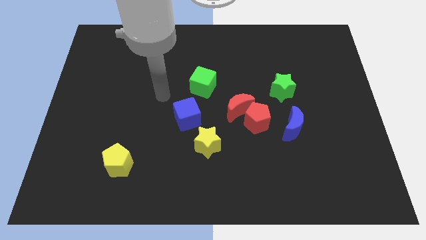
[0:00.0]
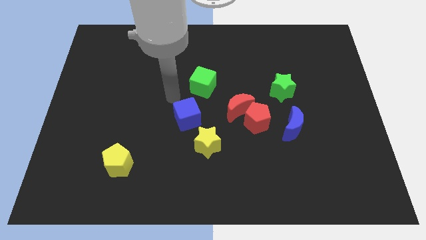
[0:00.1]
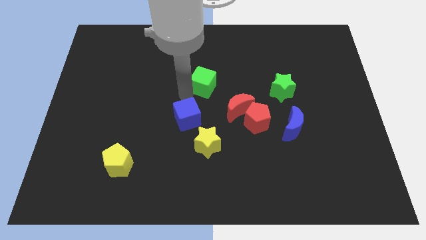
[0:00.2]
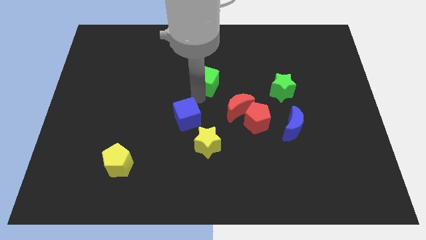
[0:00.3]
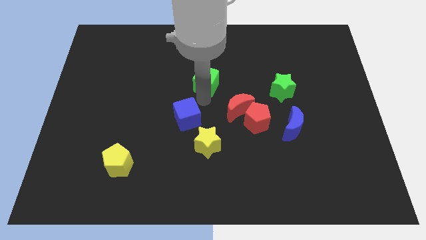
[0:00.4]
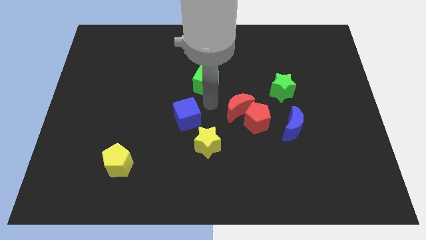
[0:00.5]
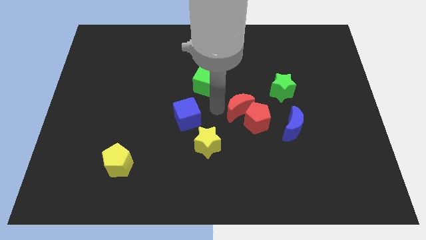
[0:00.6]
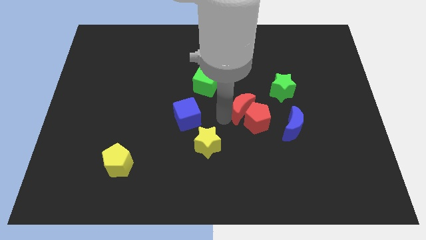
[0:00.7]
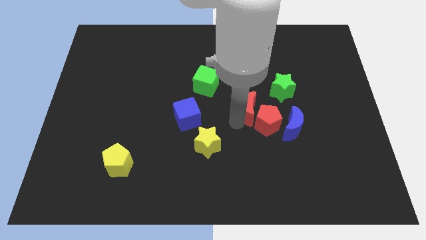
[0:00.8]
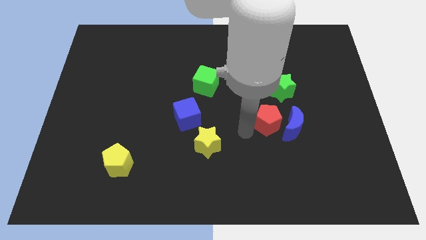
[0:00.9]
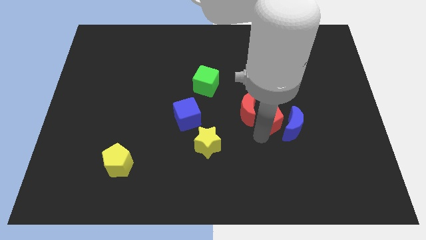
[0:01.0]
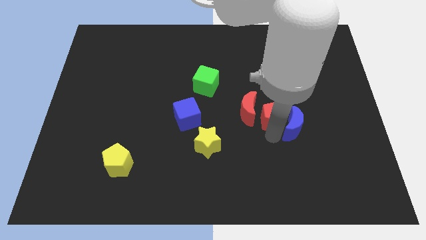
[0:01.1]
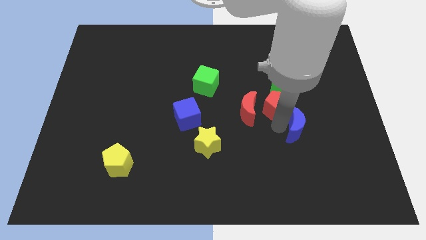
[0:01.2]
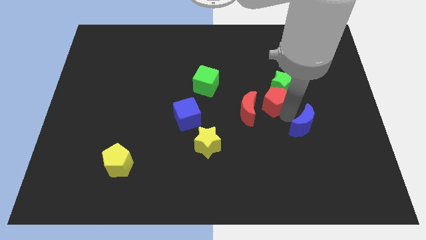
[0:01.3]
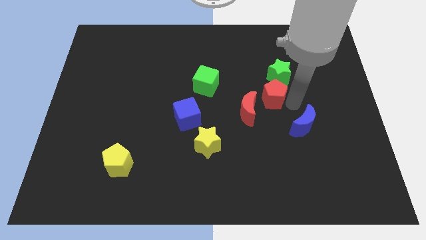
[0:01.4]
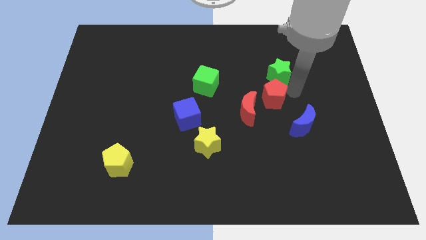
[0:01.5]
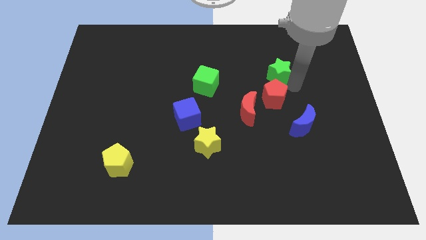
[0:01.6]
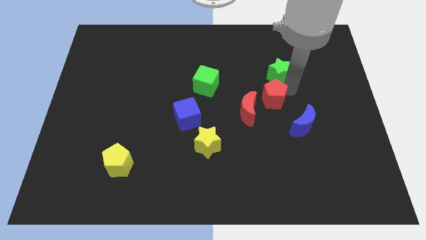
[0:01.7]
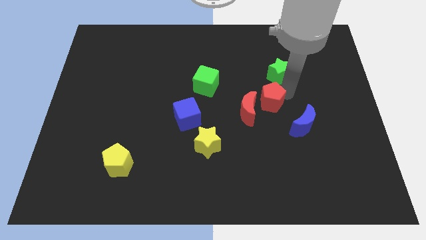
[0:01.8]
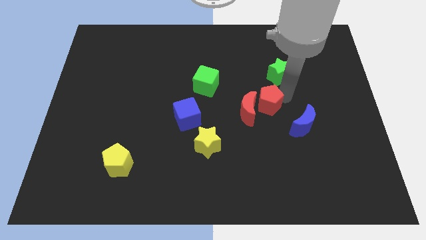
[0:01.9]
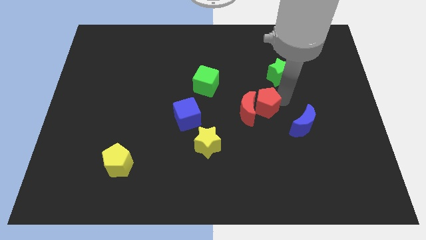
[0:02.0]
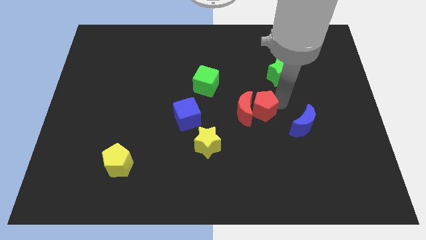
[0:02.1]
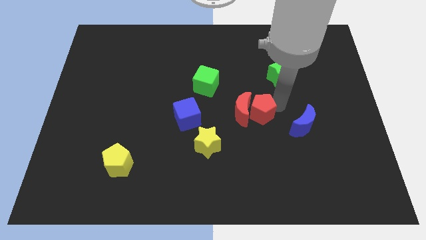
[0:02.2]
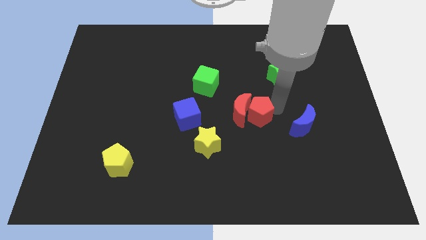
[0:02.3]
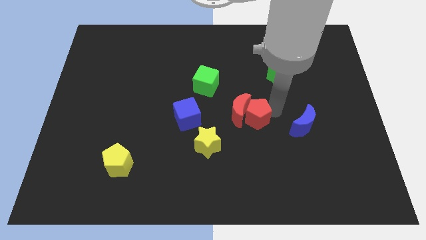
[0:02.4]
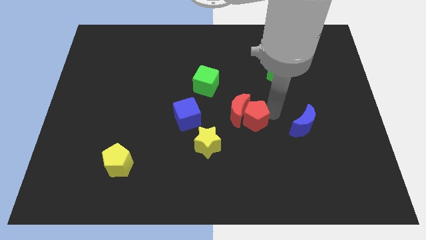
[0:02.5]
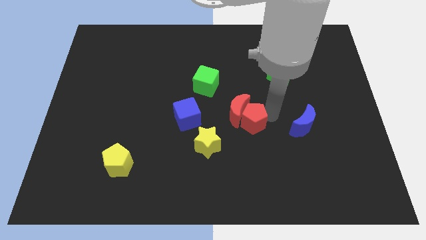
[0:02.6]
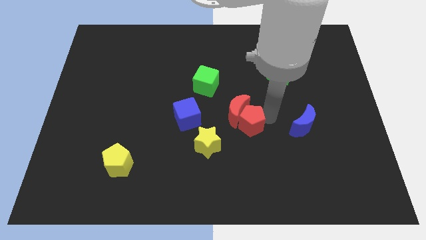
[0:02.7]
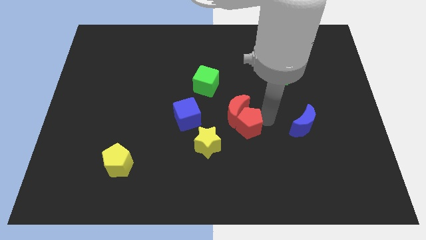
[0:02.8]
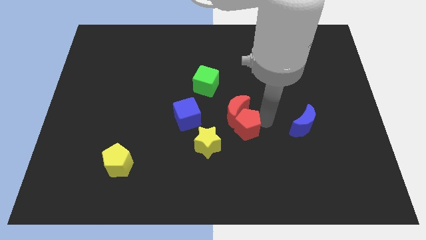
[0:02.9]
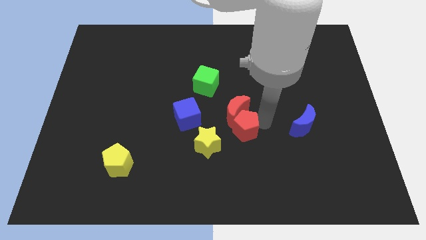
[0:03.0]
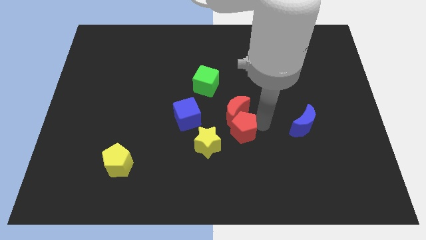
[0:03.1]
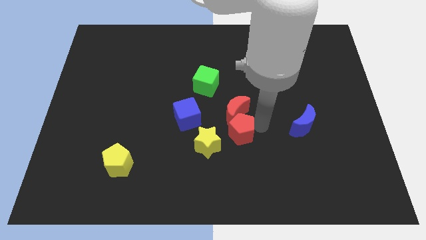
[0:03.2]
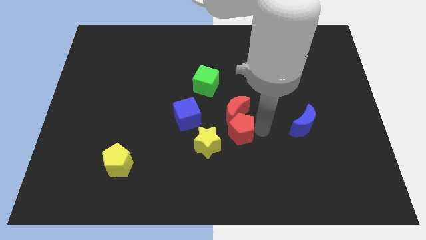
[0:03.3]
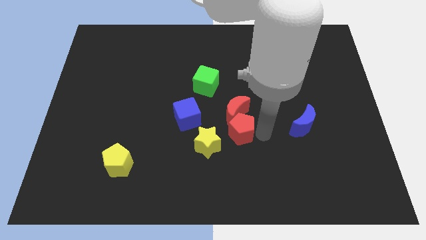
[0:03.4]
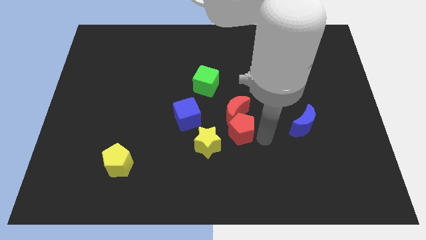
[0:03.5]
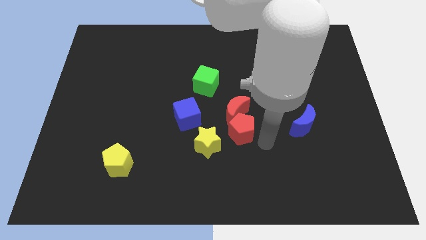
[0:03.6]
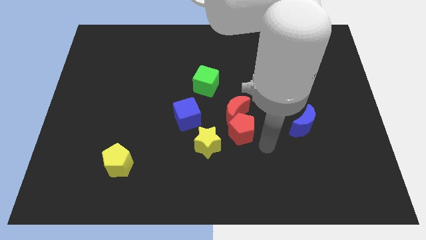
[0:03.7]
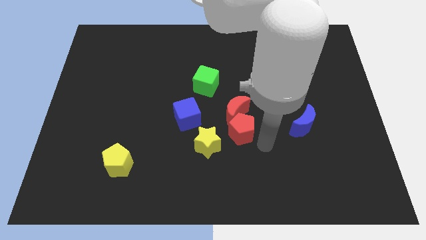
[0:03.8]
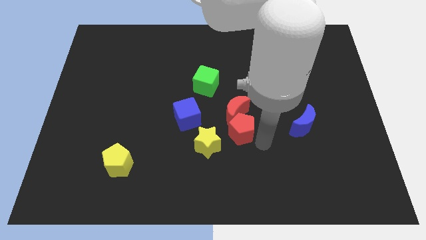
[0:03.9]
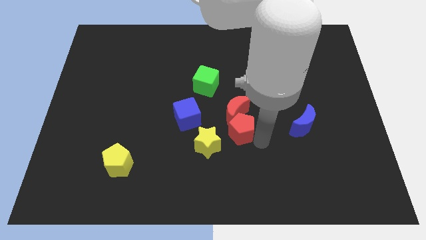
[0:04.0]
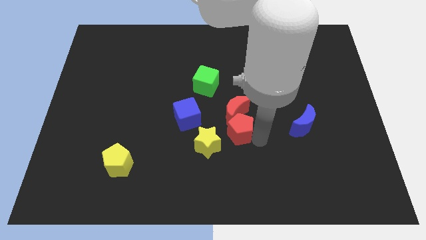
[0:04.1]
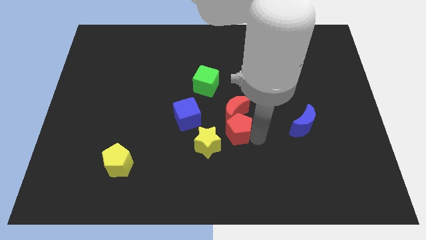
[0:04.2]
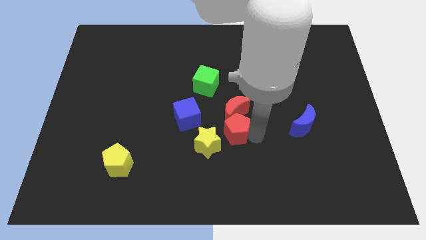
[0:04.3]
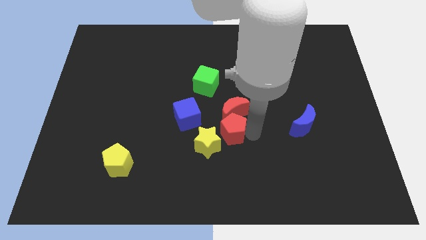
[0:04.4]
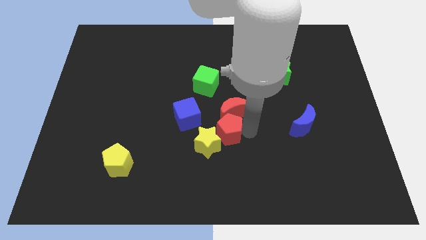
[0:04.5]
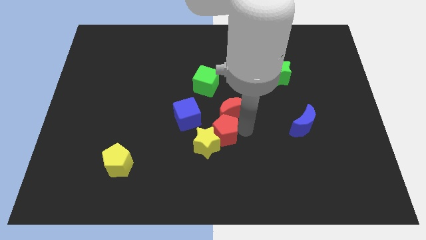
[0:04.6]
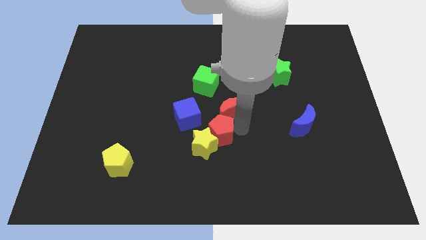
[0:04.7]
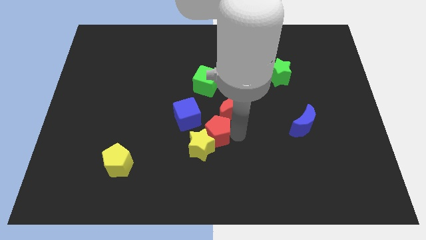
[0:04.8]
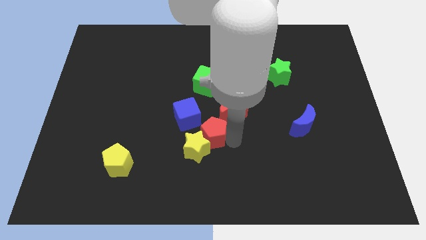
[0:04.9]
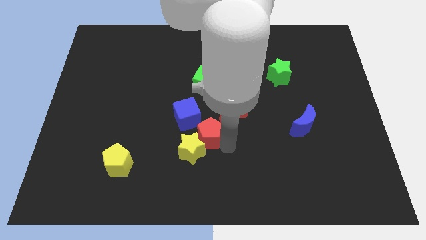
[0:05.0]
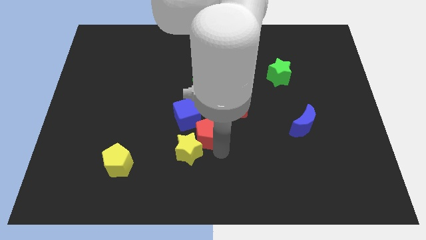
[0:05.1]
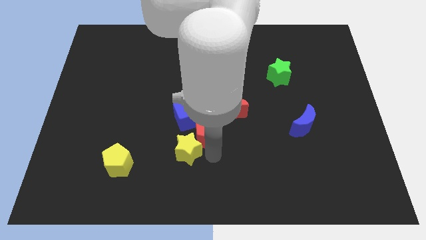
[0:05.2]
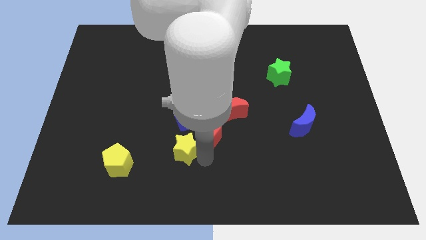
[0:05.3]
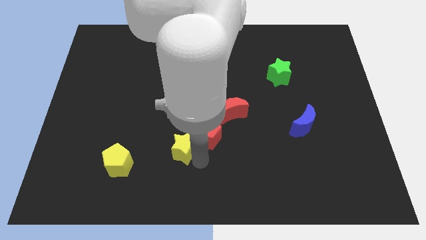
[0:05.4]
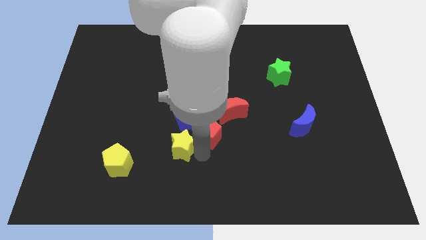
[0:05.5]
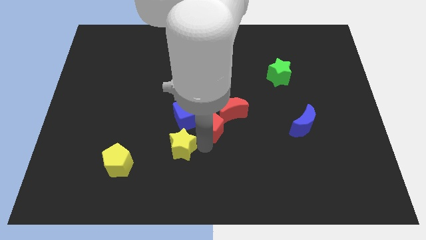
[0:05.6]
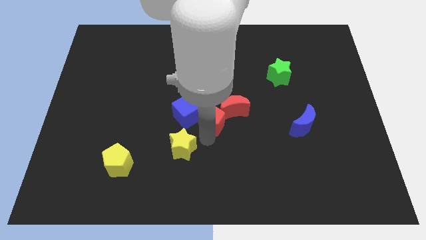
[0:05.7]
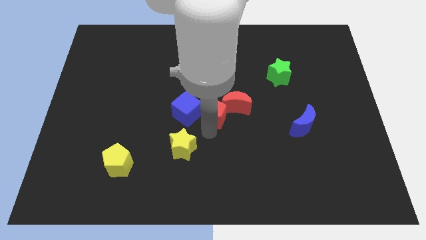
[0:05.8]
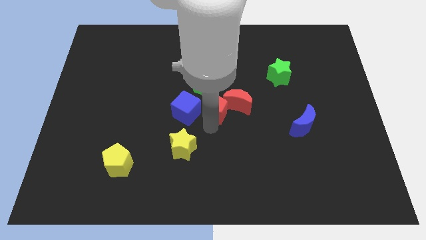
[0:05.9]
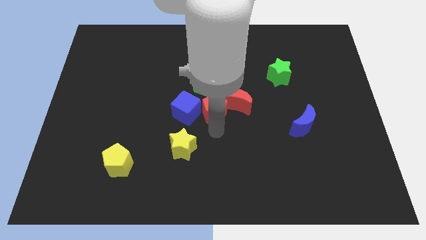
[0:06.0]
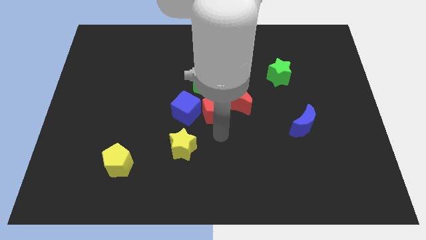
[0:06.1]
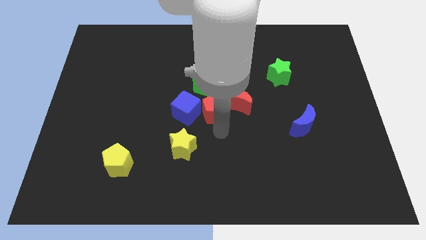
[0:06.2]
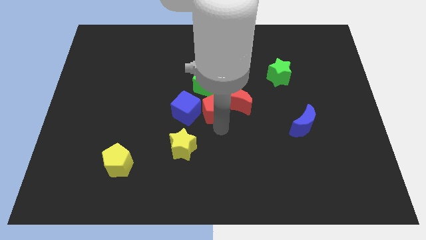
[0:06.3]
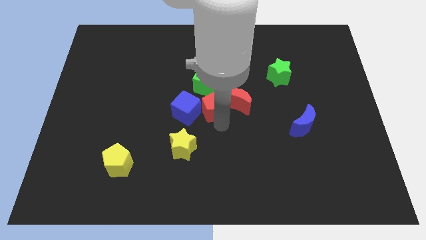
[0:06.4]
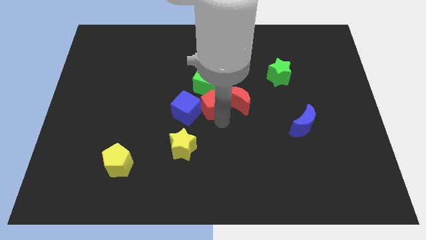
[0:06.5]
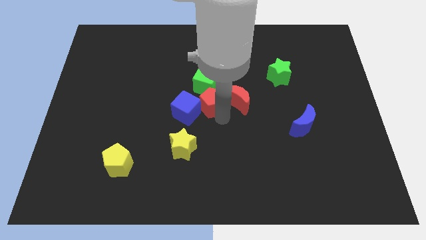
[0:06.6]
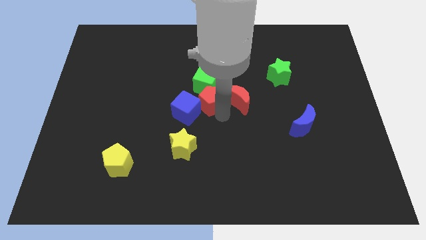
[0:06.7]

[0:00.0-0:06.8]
push the red pentagon close to the green cube

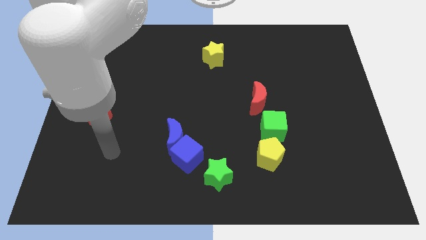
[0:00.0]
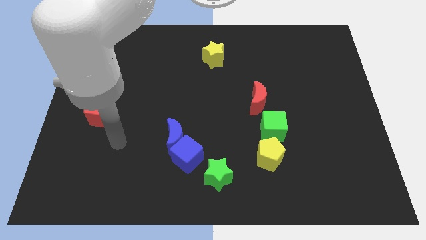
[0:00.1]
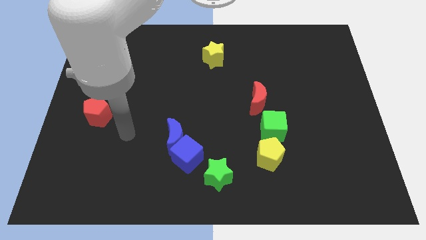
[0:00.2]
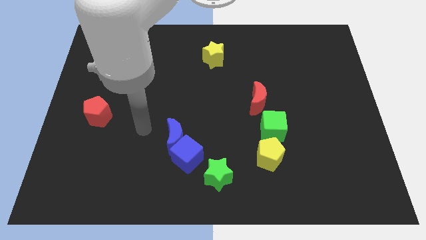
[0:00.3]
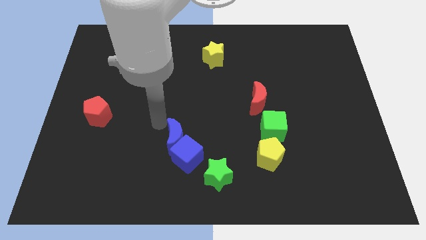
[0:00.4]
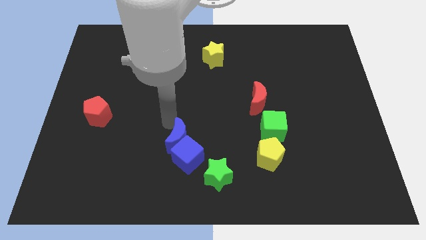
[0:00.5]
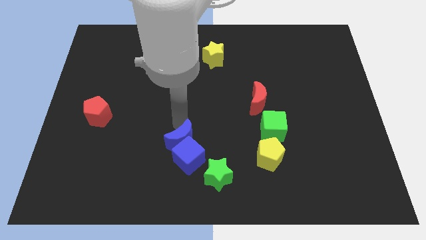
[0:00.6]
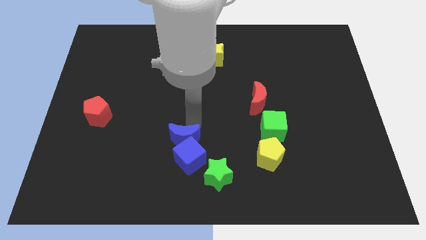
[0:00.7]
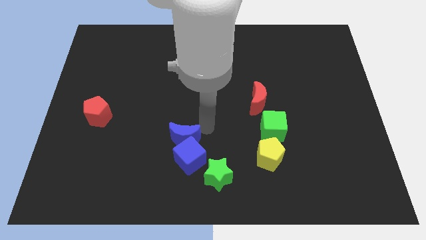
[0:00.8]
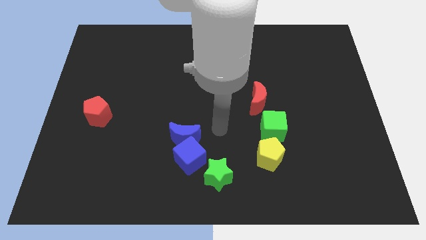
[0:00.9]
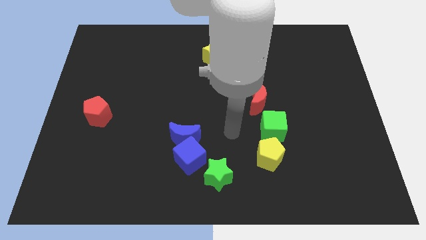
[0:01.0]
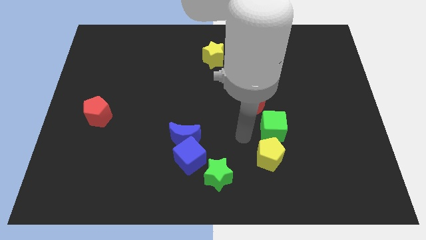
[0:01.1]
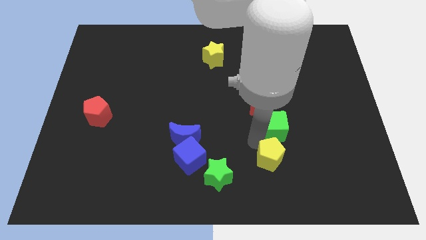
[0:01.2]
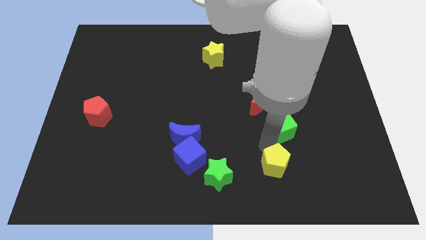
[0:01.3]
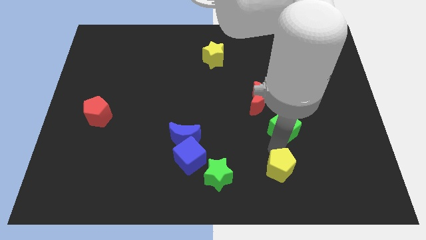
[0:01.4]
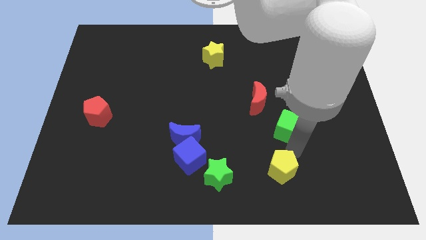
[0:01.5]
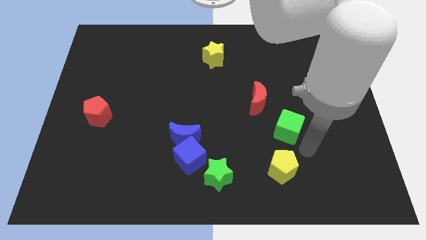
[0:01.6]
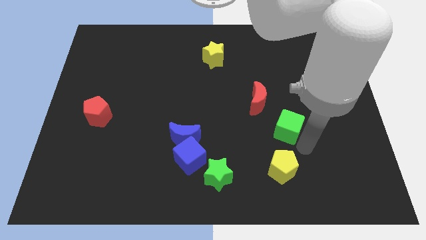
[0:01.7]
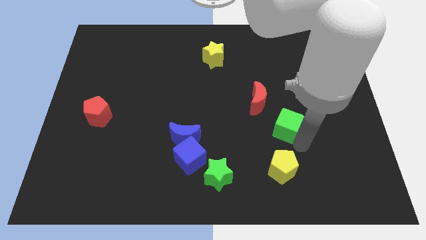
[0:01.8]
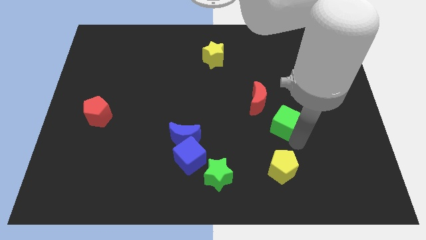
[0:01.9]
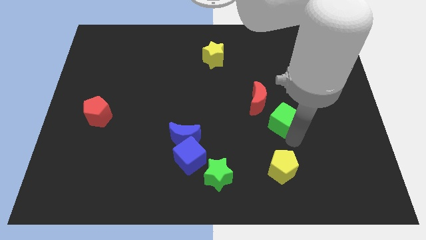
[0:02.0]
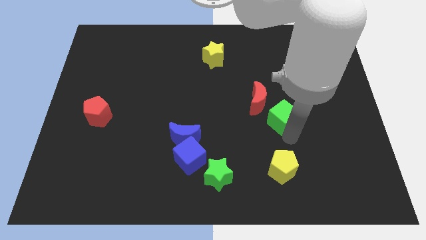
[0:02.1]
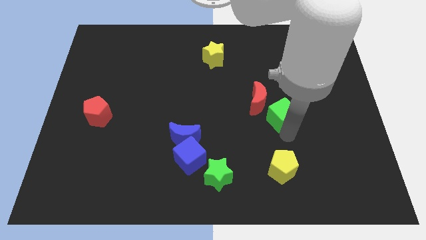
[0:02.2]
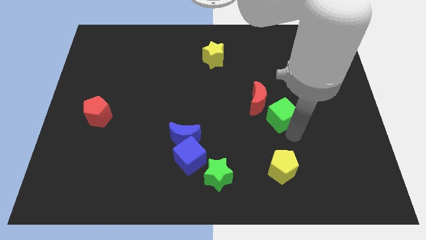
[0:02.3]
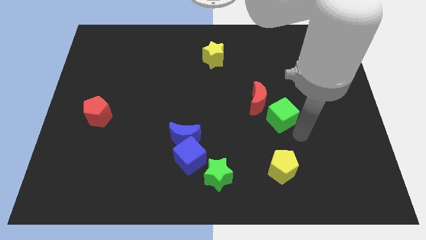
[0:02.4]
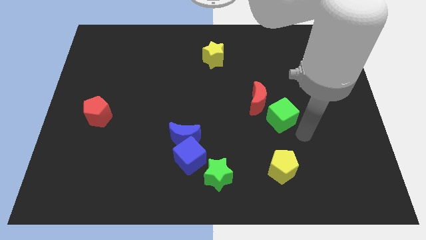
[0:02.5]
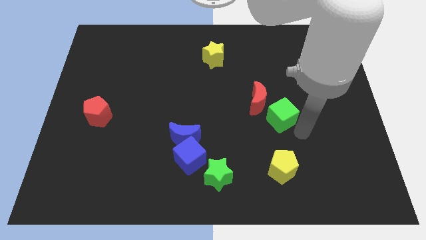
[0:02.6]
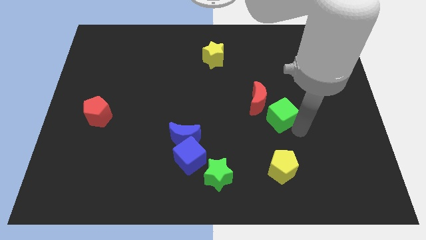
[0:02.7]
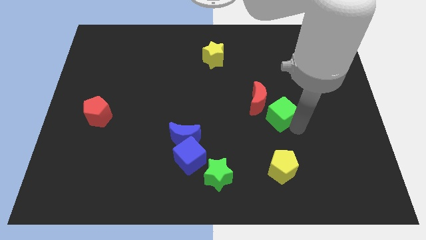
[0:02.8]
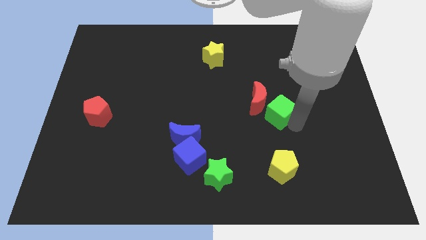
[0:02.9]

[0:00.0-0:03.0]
move the green cube next to the red moon
